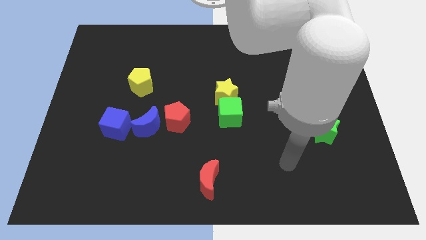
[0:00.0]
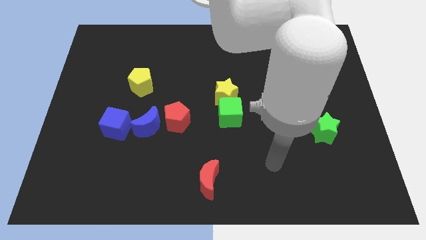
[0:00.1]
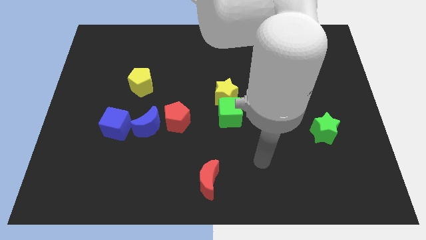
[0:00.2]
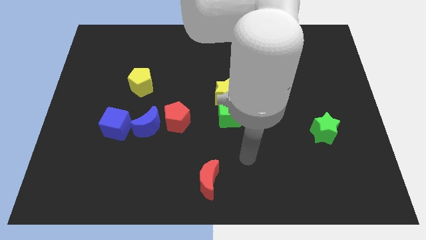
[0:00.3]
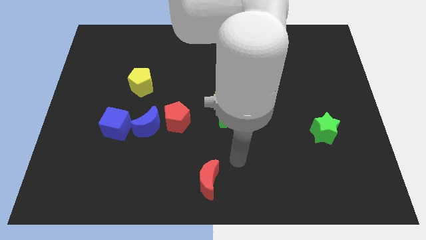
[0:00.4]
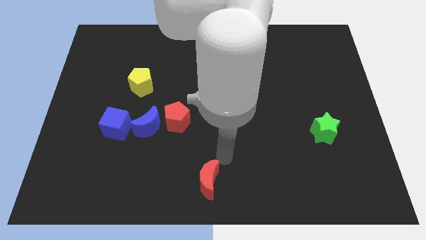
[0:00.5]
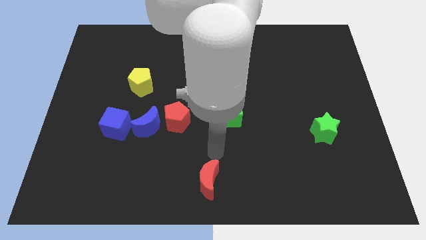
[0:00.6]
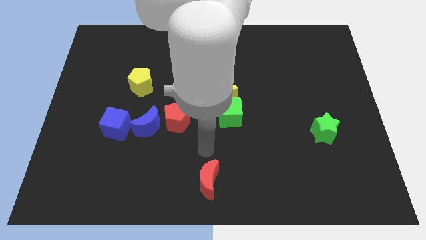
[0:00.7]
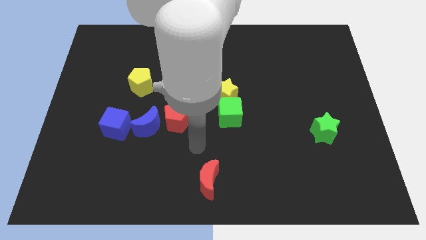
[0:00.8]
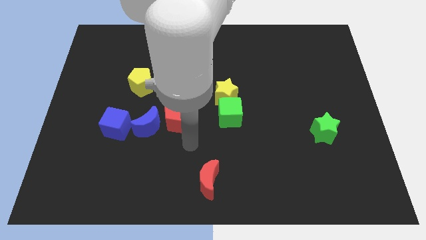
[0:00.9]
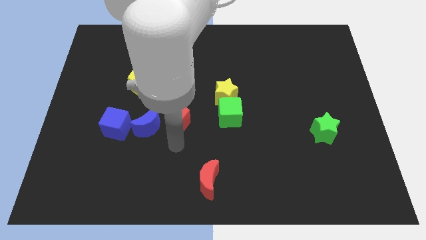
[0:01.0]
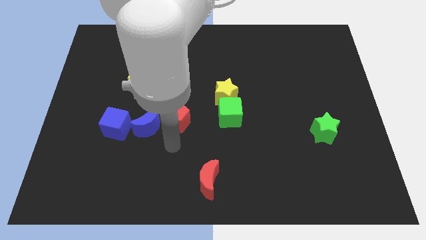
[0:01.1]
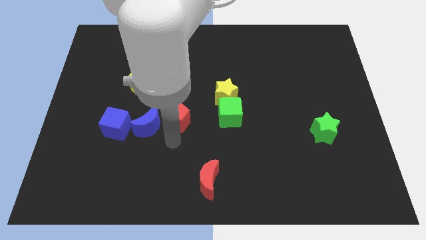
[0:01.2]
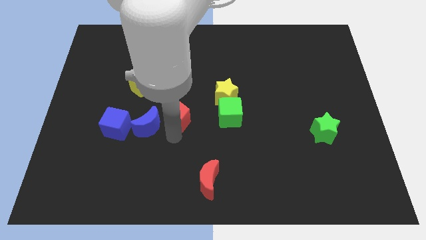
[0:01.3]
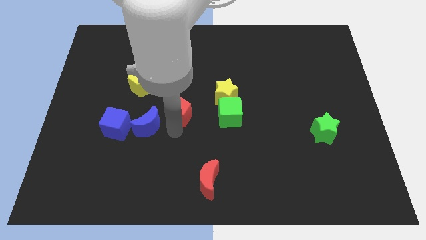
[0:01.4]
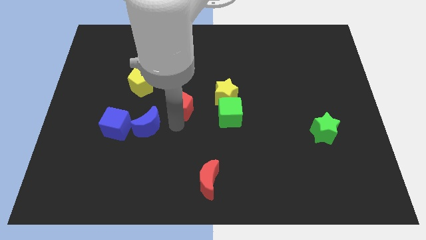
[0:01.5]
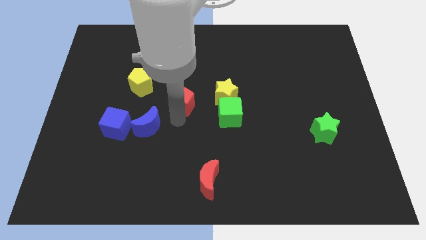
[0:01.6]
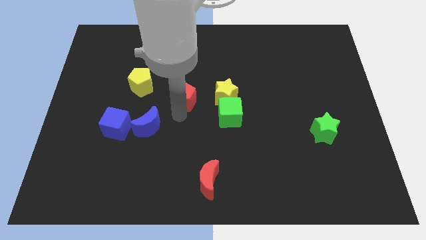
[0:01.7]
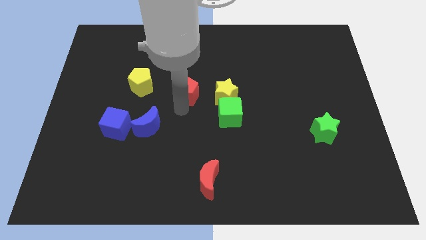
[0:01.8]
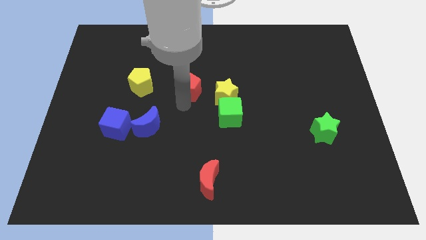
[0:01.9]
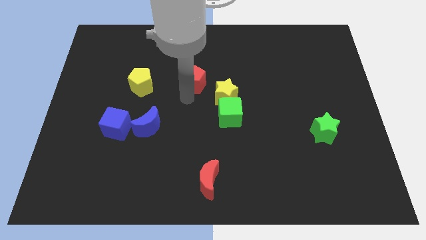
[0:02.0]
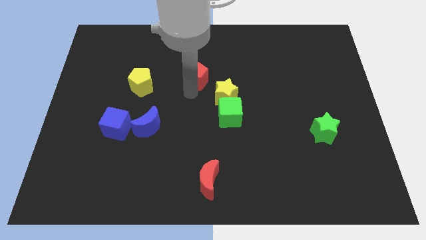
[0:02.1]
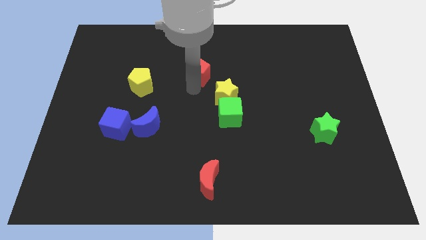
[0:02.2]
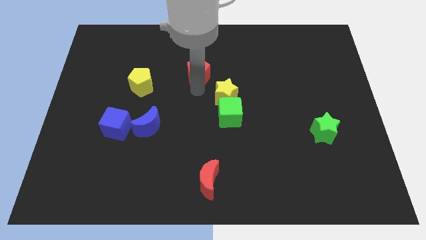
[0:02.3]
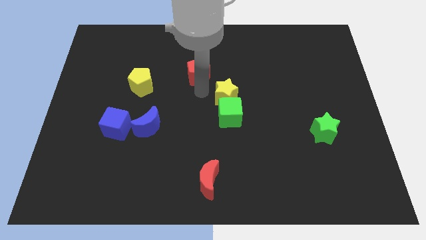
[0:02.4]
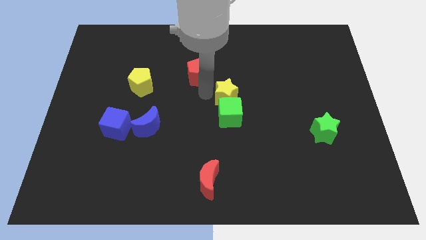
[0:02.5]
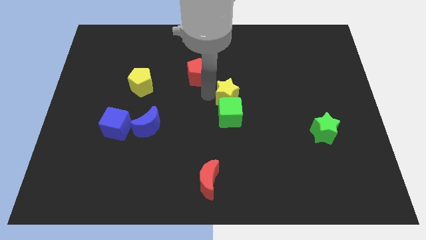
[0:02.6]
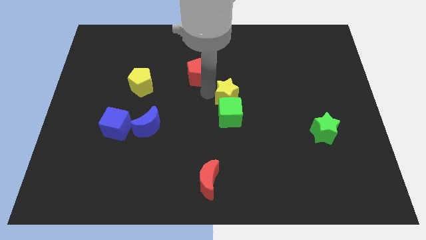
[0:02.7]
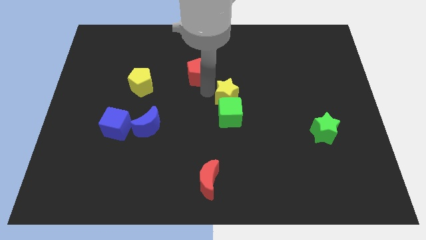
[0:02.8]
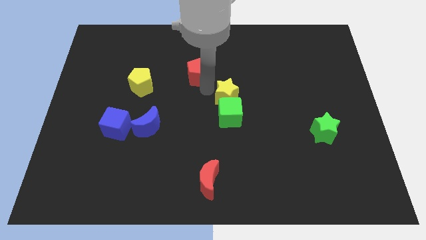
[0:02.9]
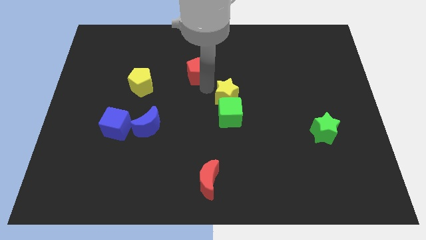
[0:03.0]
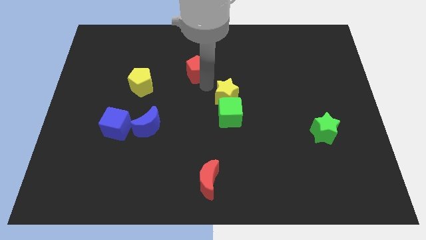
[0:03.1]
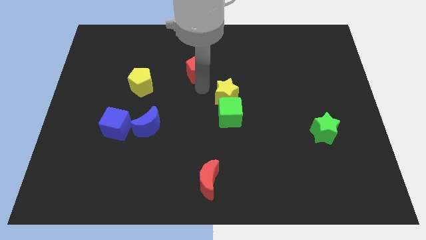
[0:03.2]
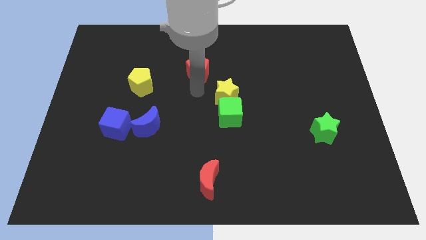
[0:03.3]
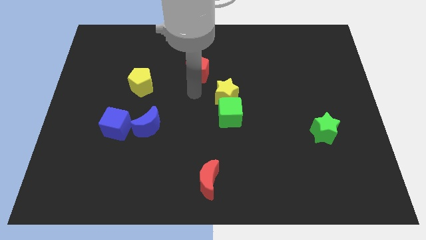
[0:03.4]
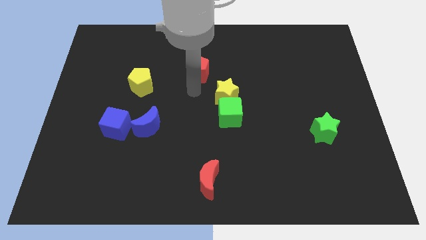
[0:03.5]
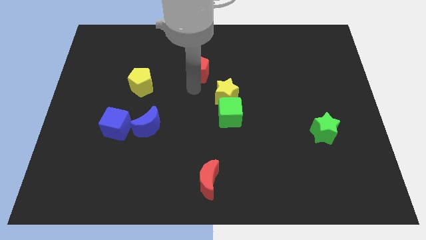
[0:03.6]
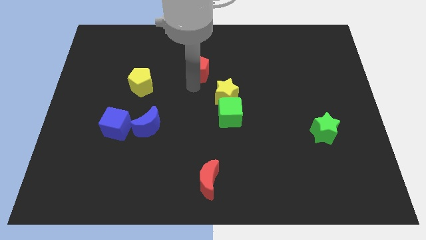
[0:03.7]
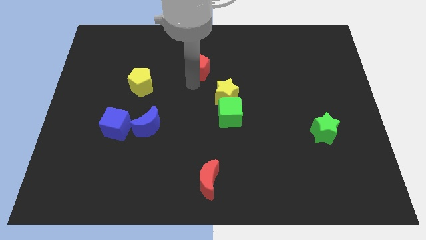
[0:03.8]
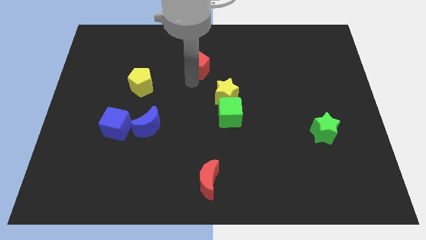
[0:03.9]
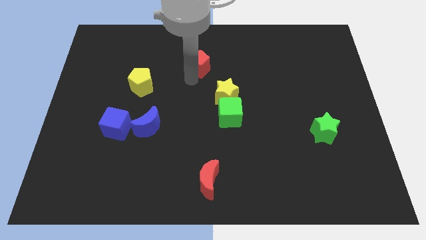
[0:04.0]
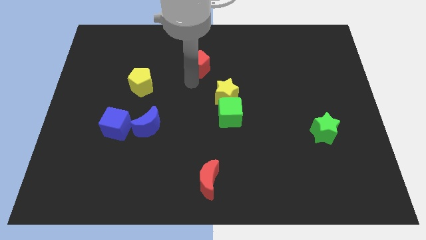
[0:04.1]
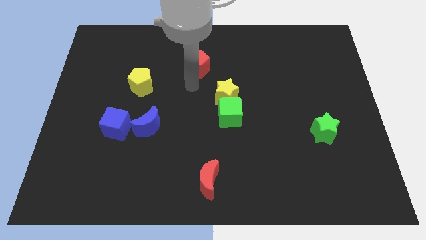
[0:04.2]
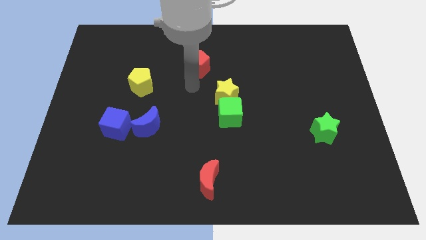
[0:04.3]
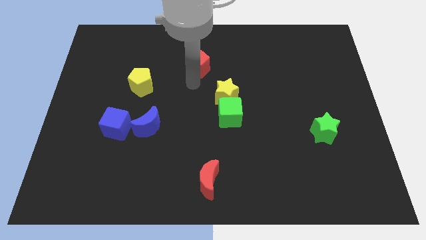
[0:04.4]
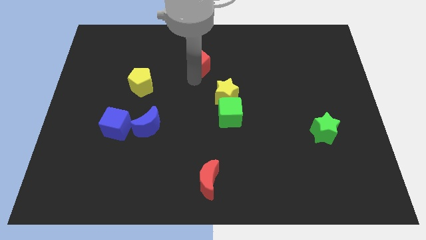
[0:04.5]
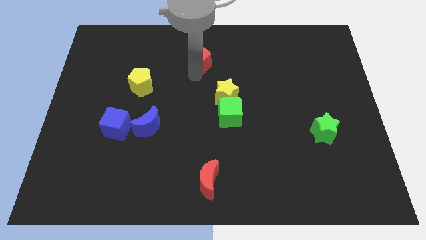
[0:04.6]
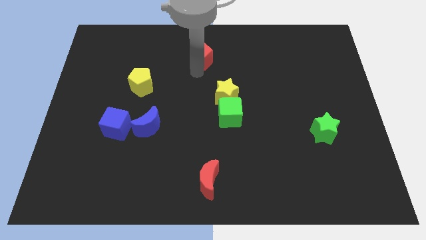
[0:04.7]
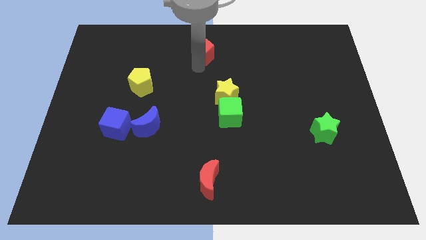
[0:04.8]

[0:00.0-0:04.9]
put the red pentagon to the towards your base

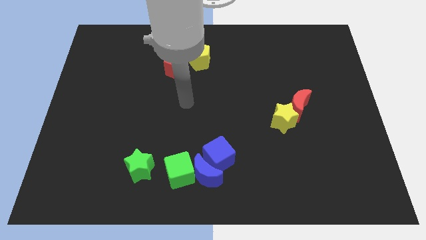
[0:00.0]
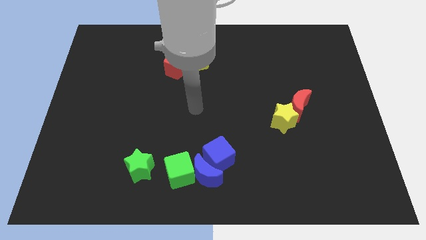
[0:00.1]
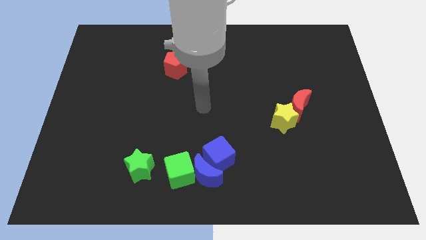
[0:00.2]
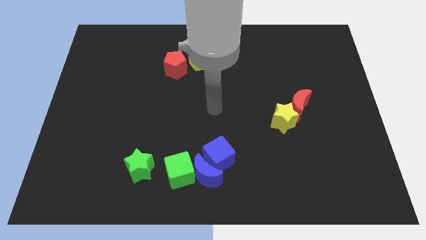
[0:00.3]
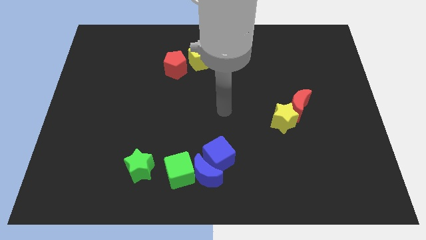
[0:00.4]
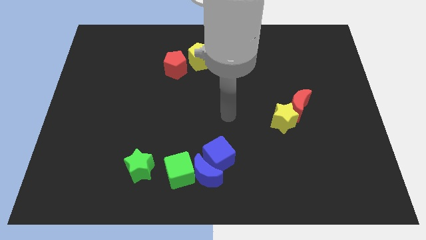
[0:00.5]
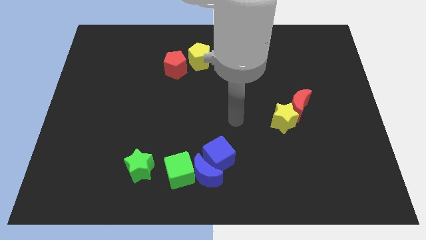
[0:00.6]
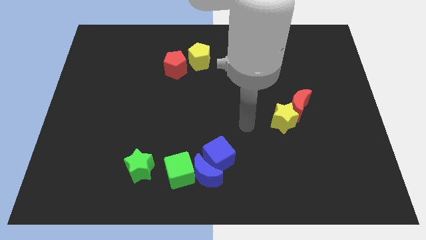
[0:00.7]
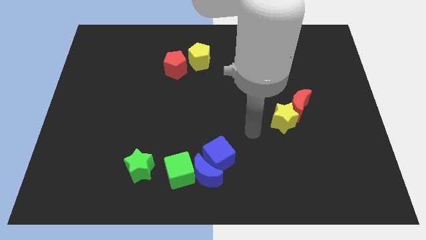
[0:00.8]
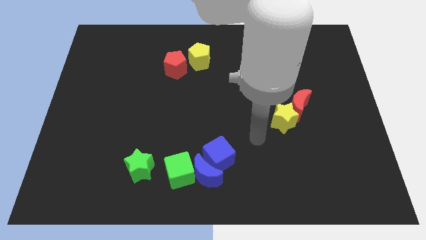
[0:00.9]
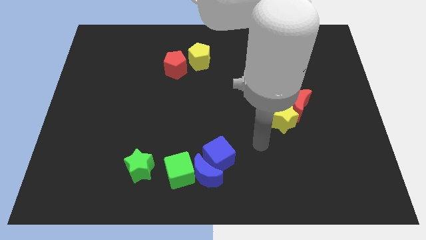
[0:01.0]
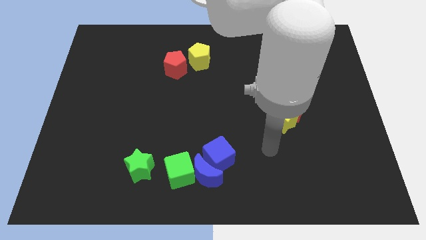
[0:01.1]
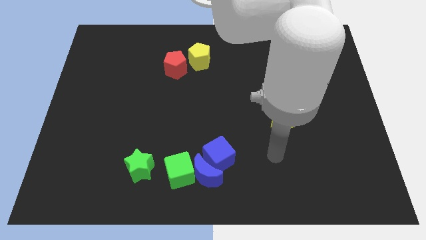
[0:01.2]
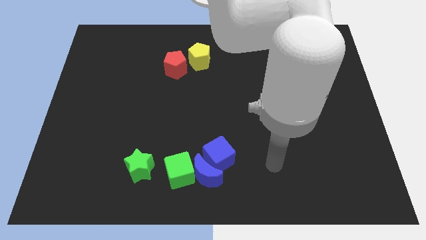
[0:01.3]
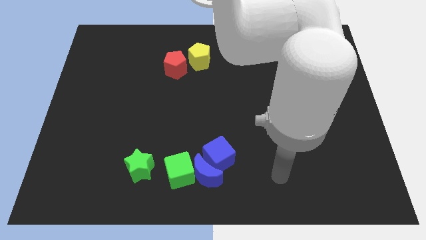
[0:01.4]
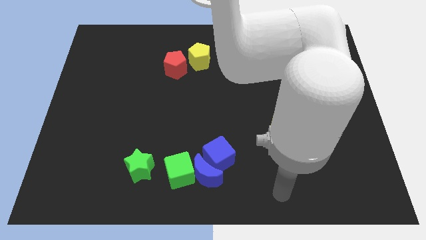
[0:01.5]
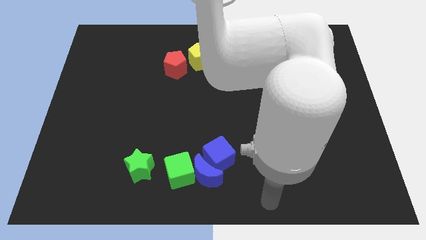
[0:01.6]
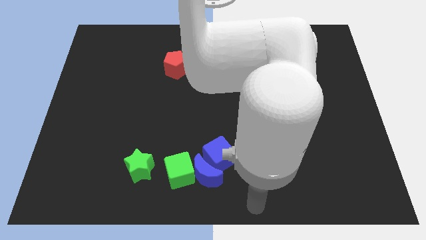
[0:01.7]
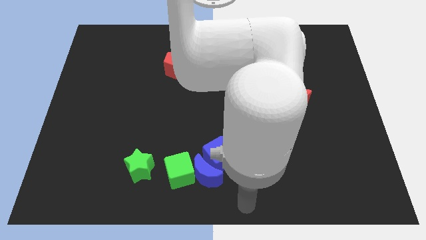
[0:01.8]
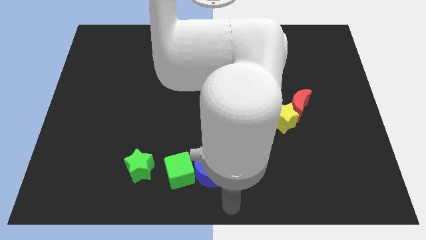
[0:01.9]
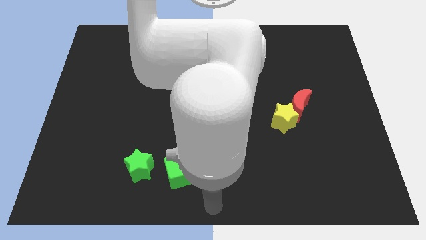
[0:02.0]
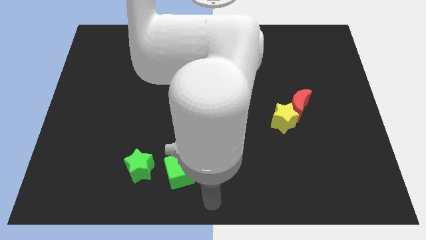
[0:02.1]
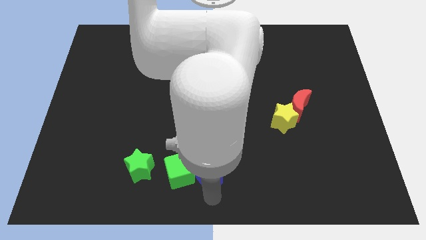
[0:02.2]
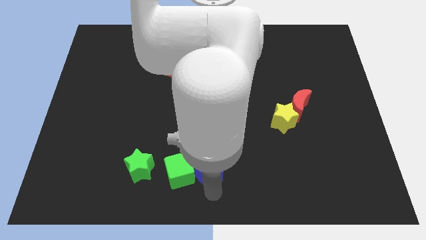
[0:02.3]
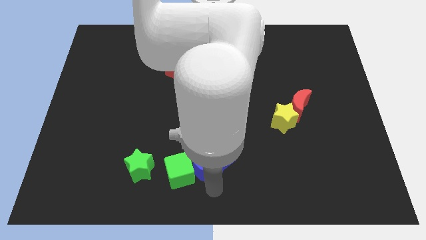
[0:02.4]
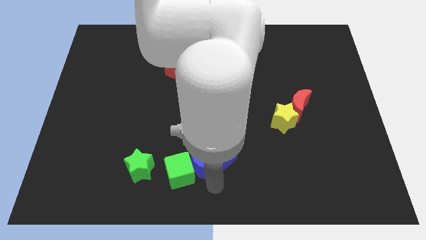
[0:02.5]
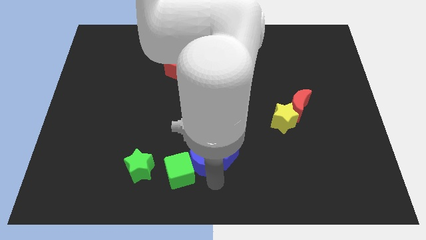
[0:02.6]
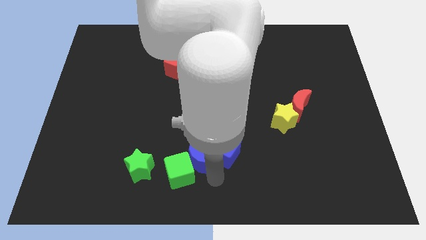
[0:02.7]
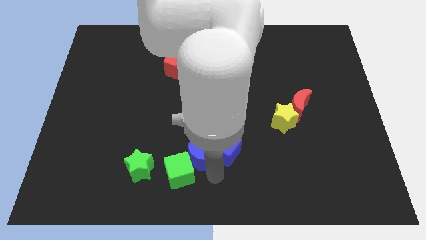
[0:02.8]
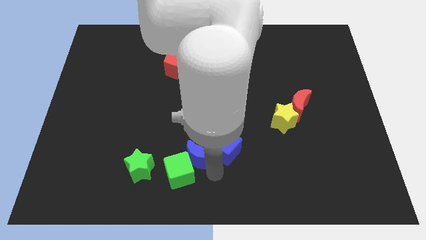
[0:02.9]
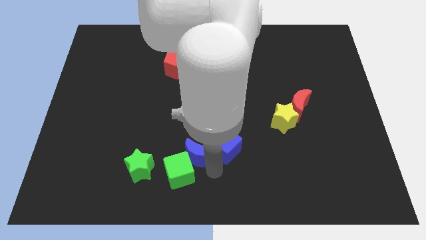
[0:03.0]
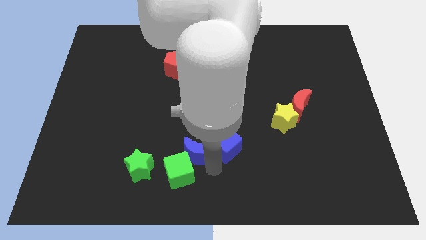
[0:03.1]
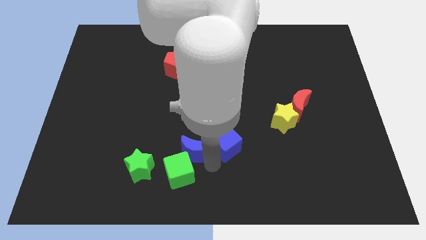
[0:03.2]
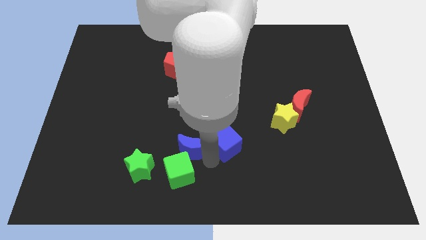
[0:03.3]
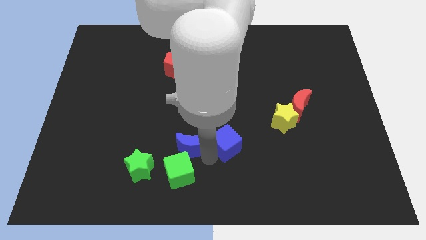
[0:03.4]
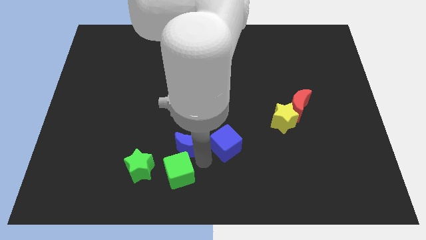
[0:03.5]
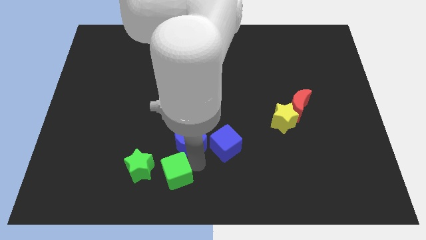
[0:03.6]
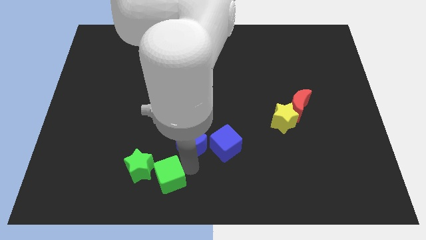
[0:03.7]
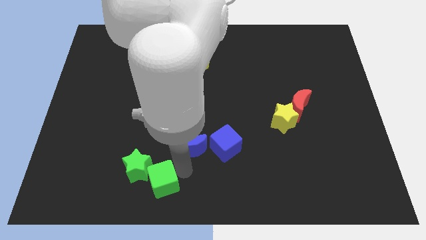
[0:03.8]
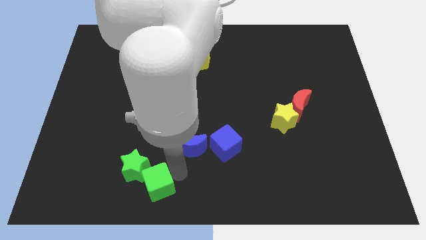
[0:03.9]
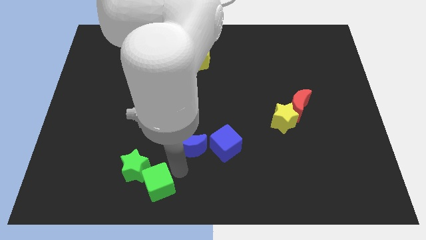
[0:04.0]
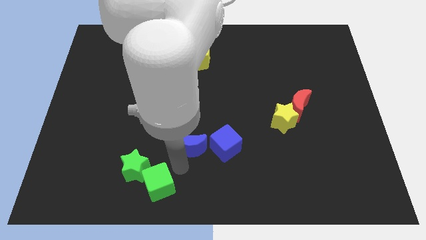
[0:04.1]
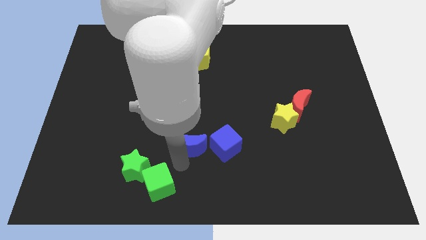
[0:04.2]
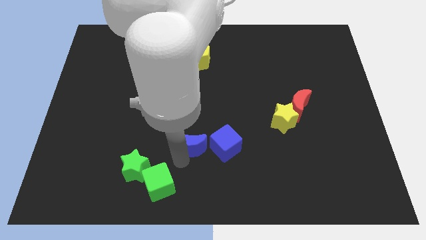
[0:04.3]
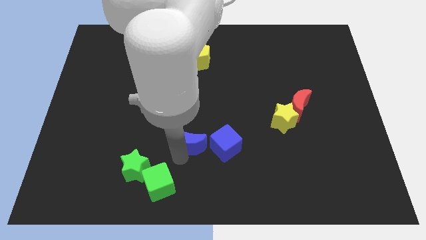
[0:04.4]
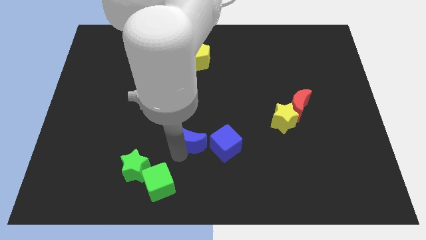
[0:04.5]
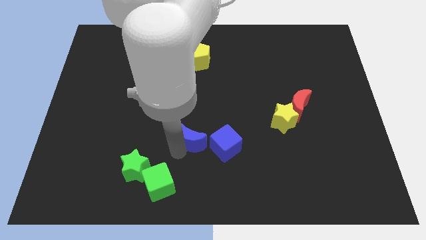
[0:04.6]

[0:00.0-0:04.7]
push the blue moon to the middle
